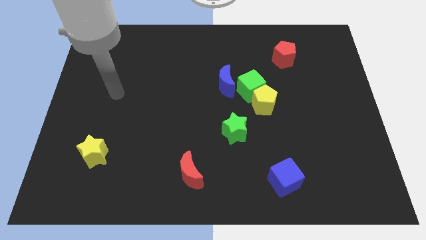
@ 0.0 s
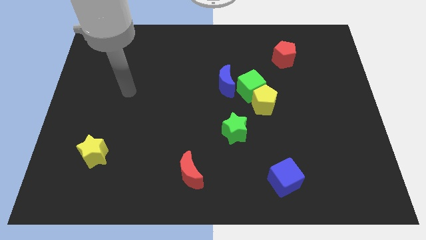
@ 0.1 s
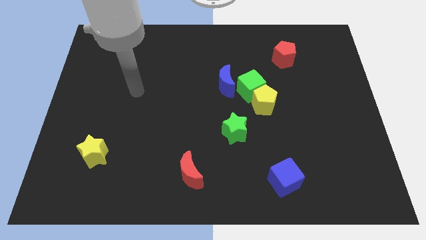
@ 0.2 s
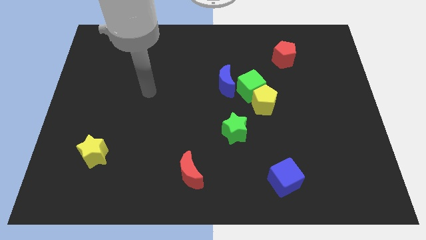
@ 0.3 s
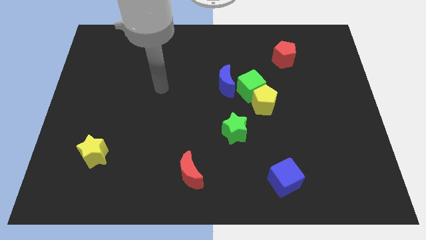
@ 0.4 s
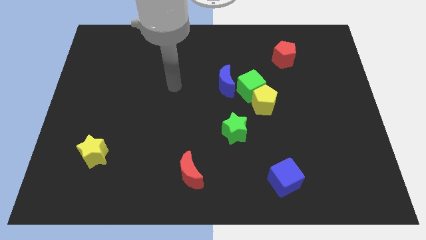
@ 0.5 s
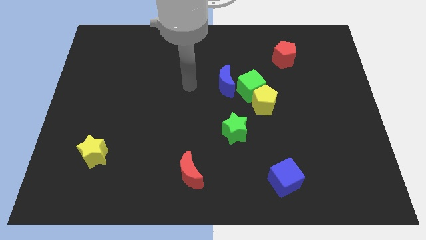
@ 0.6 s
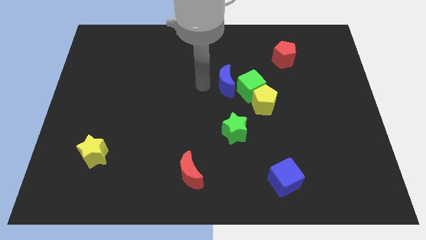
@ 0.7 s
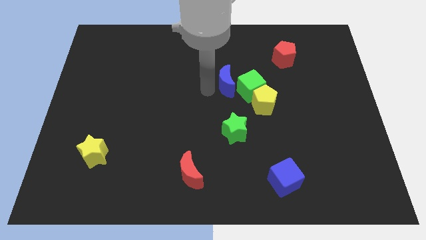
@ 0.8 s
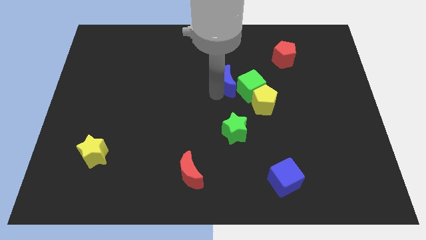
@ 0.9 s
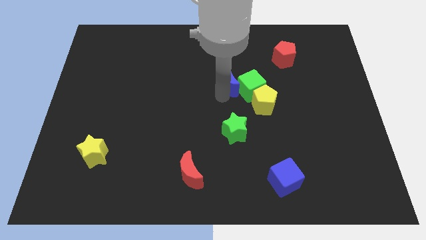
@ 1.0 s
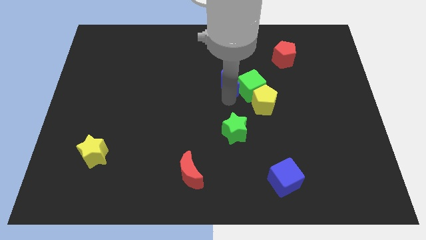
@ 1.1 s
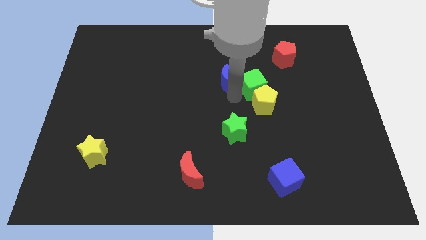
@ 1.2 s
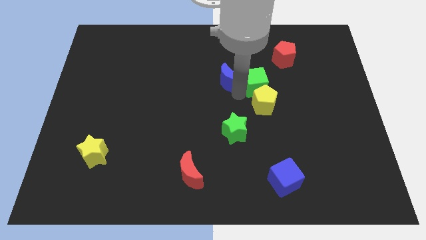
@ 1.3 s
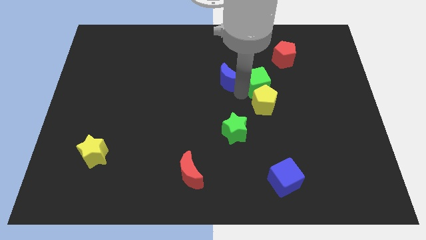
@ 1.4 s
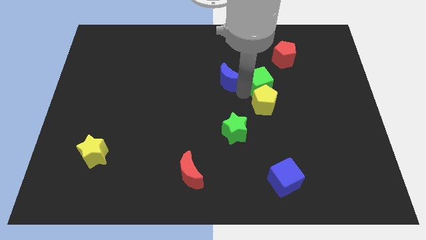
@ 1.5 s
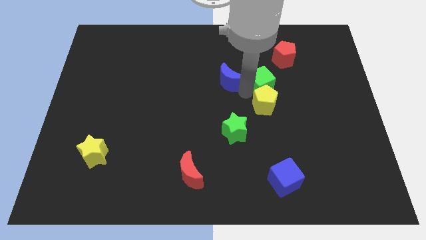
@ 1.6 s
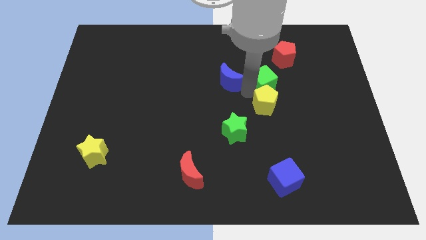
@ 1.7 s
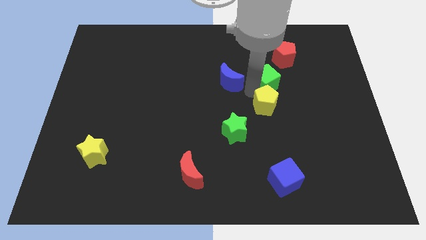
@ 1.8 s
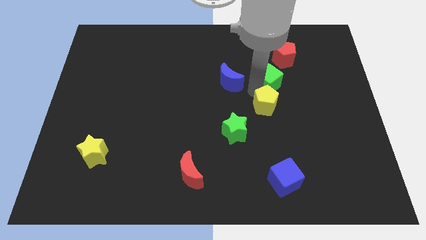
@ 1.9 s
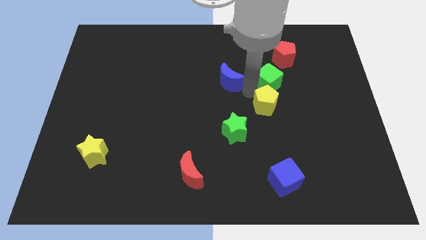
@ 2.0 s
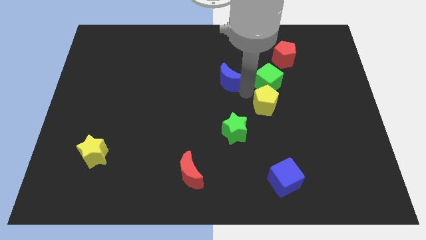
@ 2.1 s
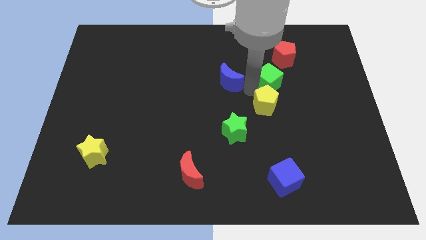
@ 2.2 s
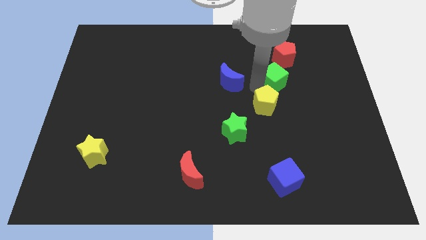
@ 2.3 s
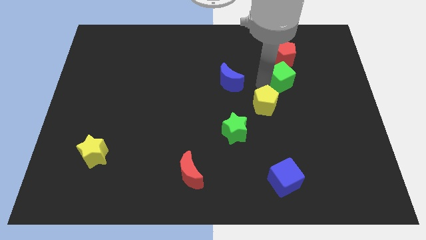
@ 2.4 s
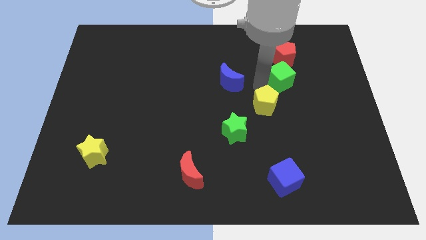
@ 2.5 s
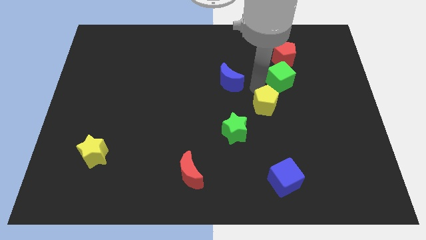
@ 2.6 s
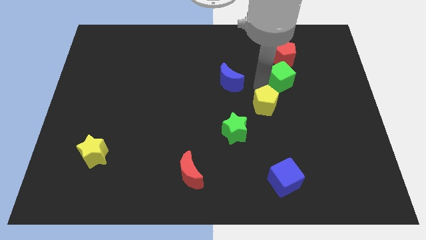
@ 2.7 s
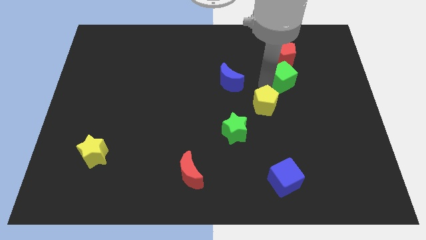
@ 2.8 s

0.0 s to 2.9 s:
move the green cube away from the yellow pentagon and blue moon

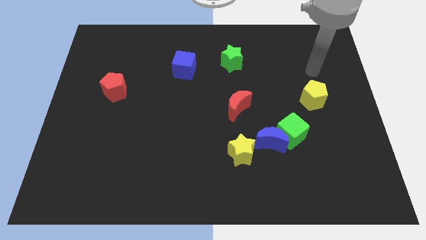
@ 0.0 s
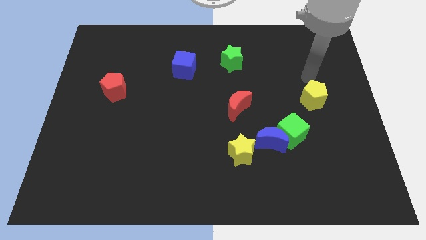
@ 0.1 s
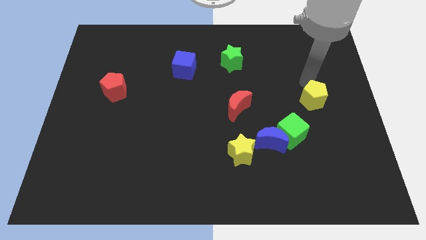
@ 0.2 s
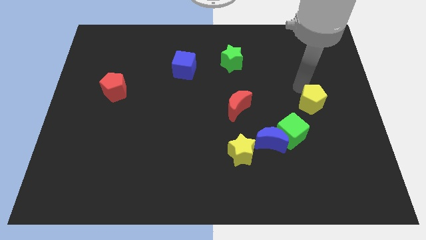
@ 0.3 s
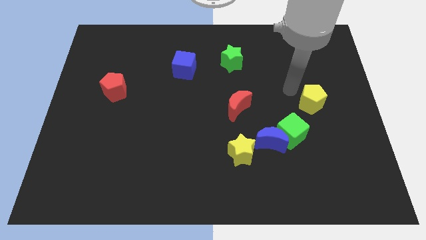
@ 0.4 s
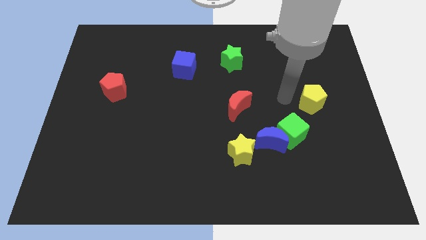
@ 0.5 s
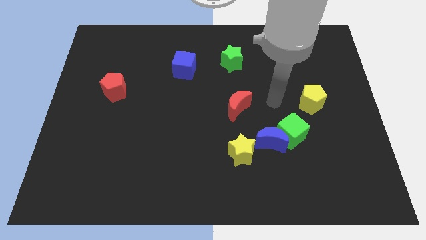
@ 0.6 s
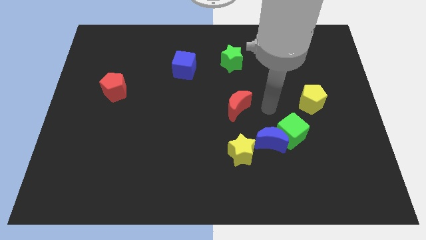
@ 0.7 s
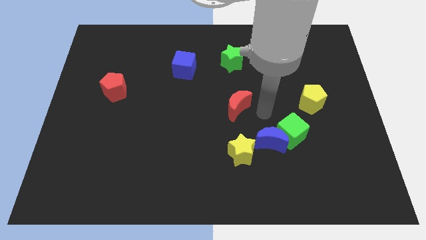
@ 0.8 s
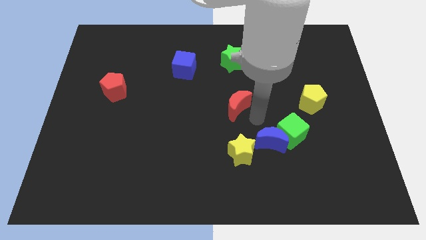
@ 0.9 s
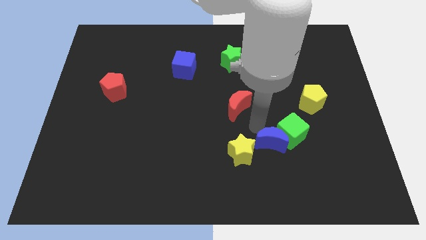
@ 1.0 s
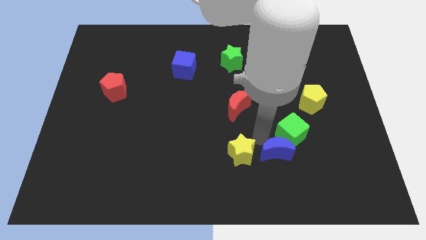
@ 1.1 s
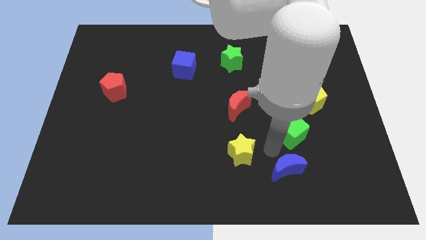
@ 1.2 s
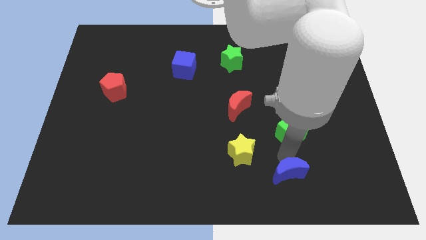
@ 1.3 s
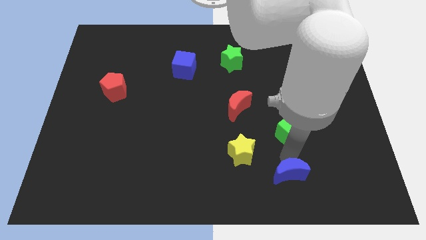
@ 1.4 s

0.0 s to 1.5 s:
pull the green cube apart from the blue moon

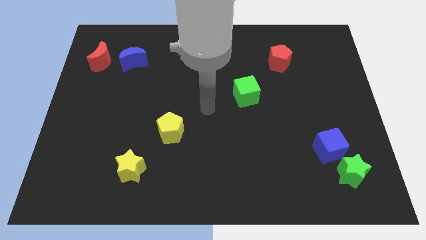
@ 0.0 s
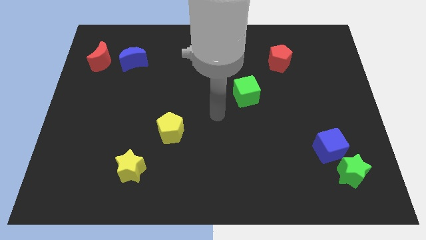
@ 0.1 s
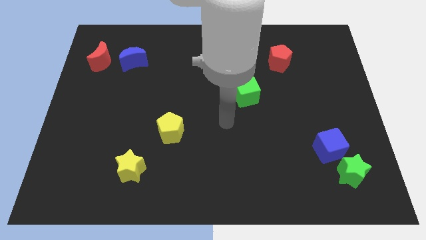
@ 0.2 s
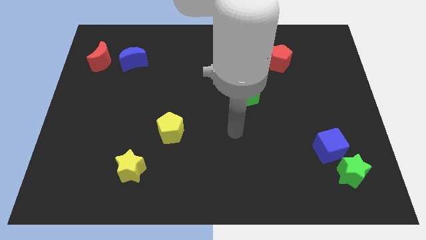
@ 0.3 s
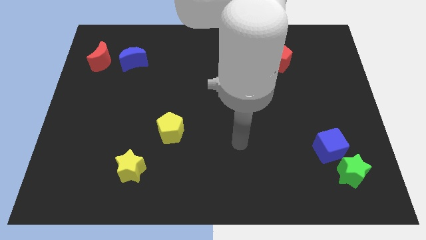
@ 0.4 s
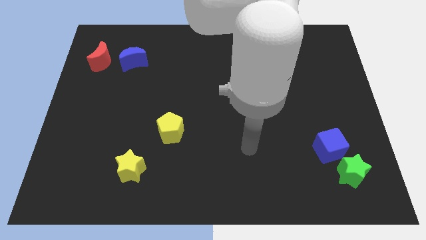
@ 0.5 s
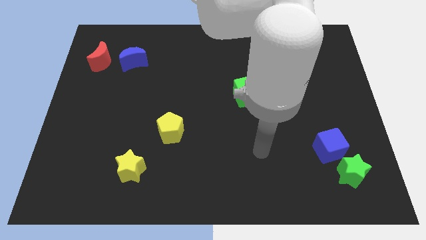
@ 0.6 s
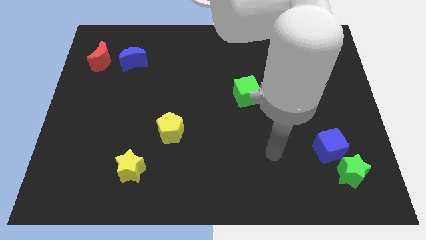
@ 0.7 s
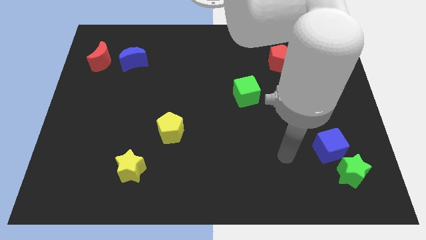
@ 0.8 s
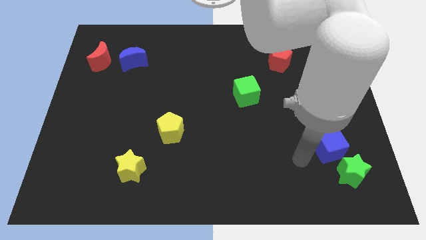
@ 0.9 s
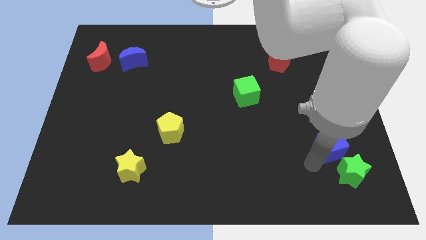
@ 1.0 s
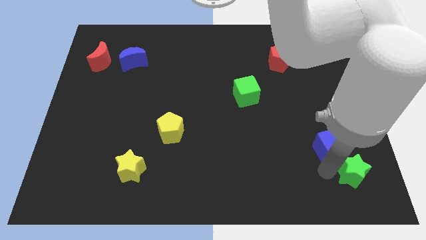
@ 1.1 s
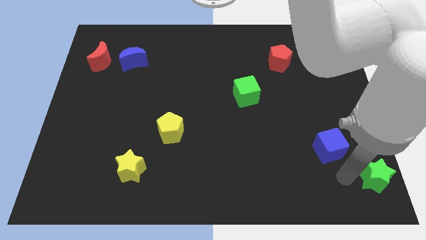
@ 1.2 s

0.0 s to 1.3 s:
pull the blue cube apart from the green star

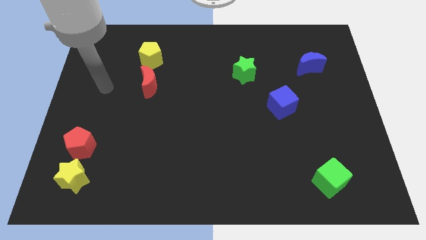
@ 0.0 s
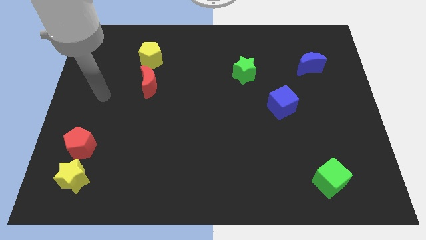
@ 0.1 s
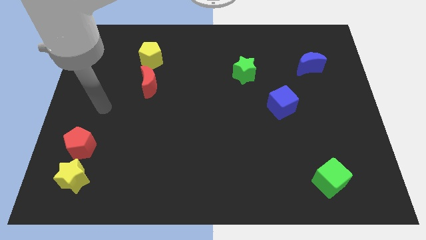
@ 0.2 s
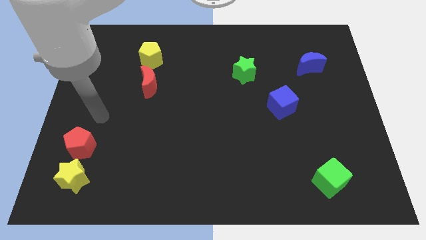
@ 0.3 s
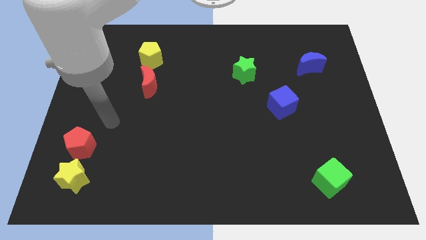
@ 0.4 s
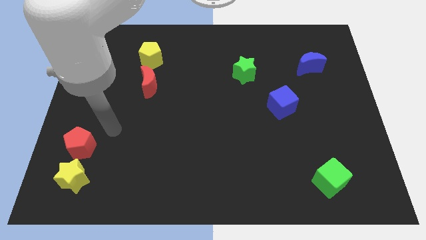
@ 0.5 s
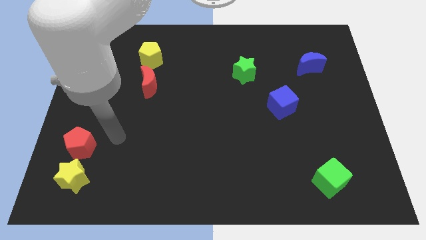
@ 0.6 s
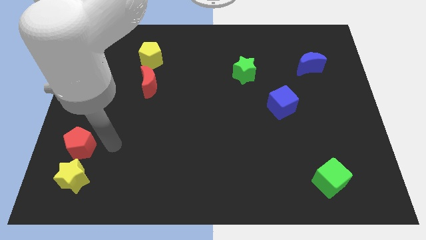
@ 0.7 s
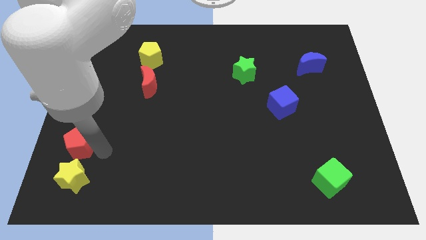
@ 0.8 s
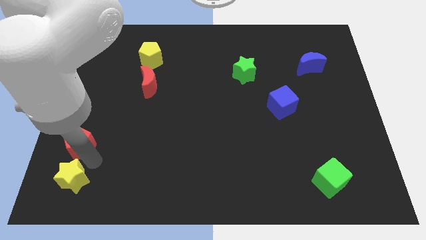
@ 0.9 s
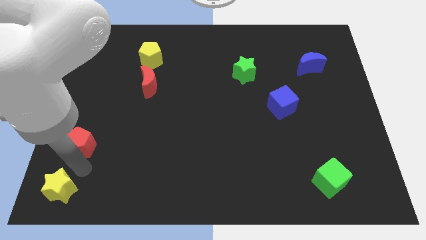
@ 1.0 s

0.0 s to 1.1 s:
move the red pentagon away from the yellow star

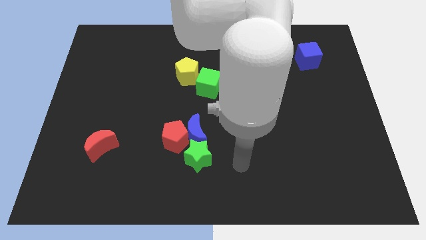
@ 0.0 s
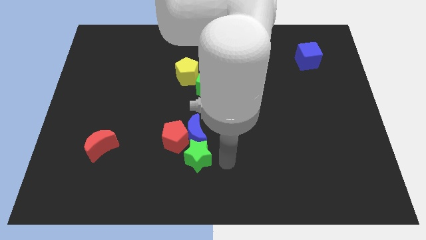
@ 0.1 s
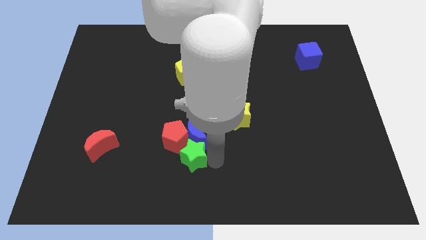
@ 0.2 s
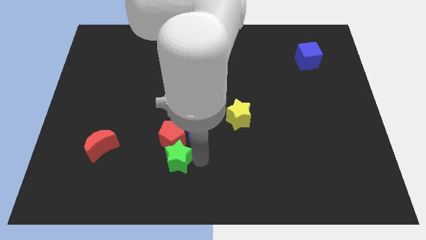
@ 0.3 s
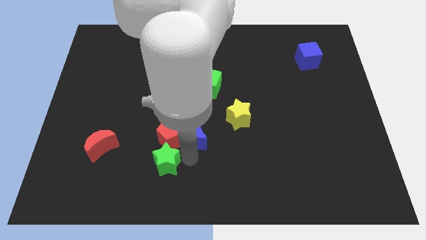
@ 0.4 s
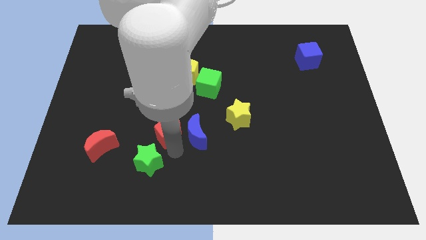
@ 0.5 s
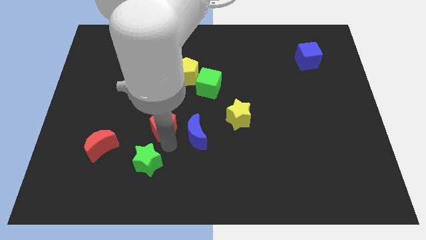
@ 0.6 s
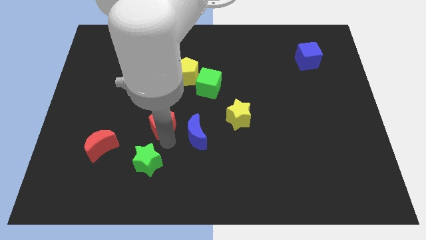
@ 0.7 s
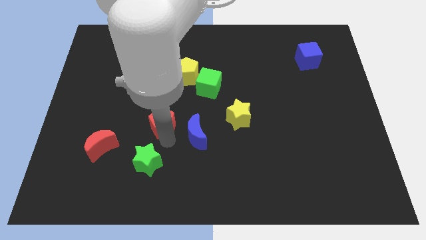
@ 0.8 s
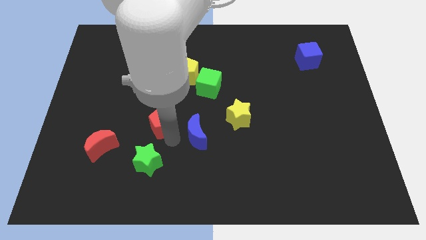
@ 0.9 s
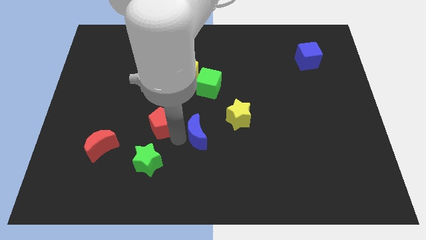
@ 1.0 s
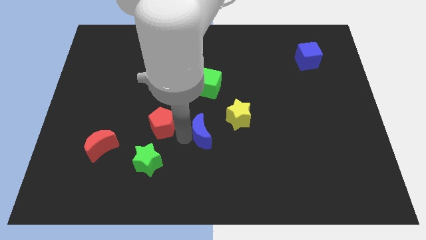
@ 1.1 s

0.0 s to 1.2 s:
move the blue moon away from the red pentagon and green star

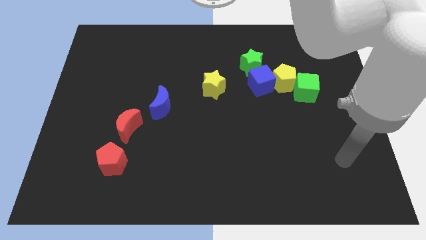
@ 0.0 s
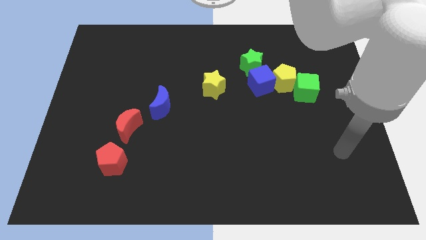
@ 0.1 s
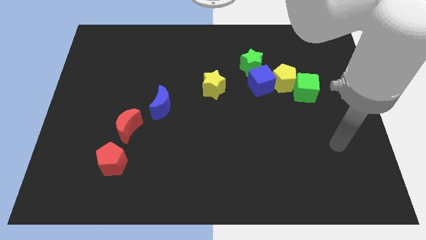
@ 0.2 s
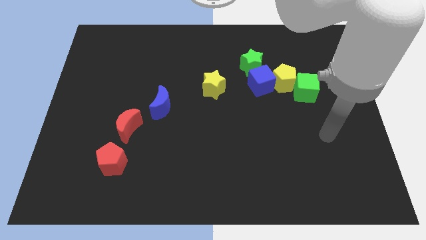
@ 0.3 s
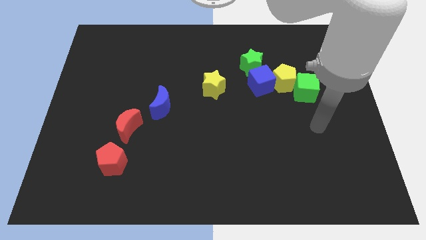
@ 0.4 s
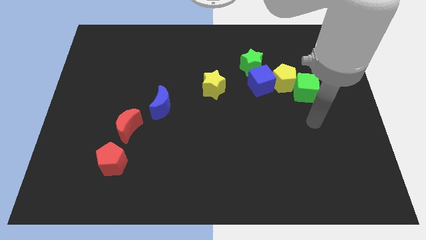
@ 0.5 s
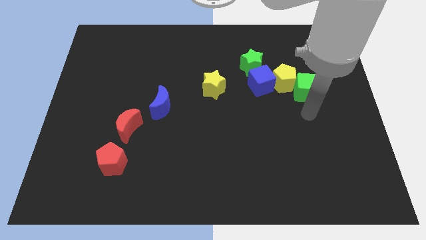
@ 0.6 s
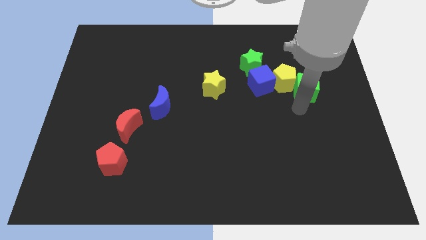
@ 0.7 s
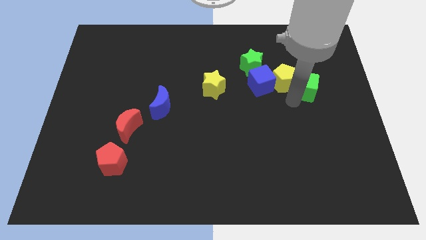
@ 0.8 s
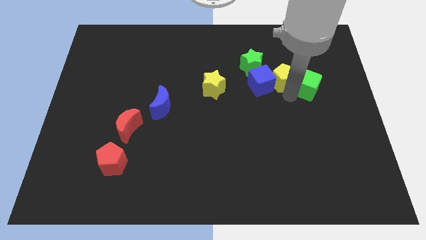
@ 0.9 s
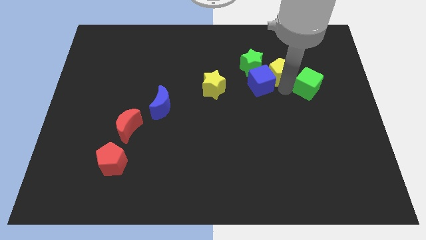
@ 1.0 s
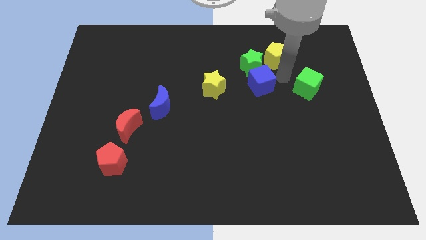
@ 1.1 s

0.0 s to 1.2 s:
pull the green cube apart from the yellow pentagon
